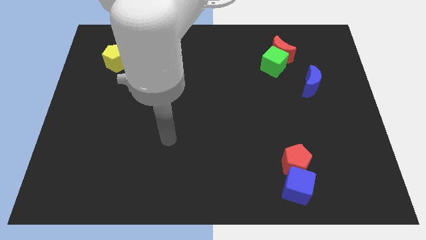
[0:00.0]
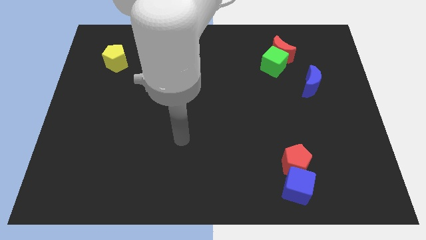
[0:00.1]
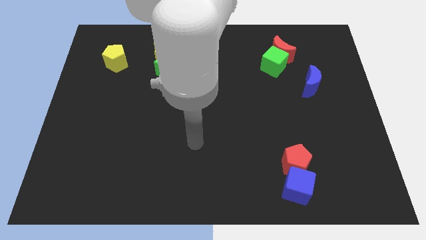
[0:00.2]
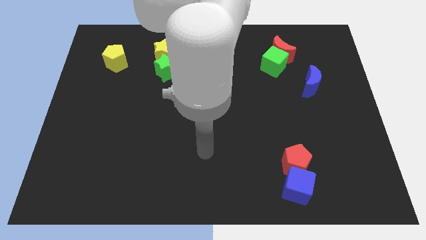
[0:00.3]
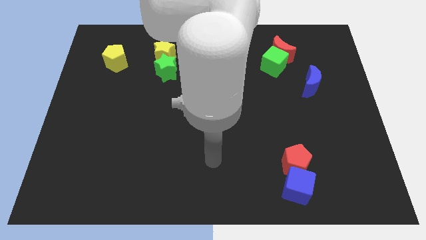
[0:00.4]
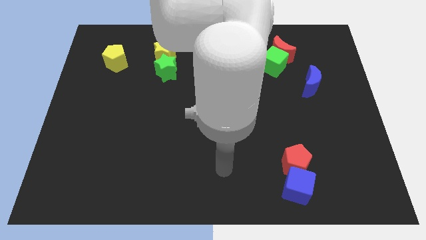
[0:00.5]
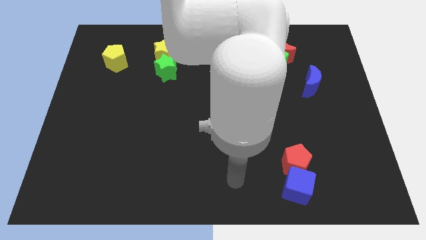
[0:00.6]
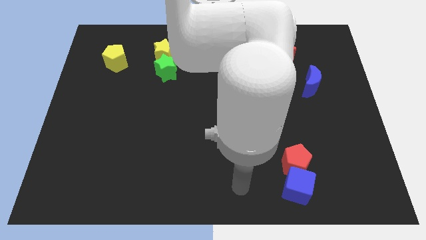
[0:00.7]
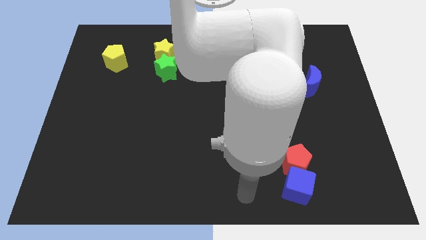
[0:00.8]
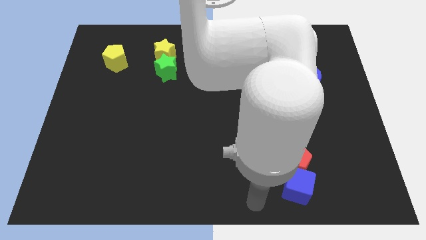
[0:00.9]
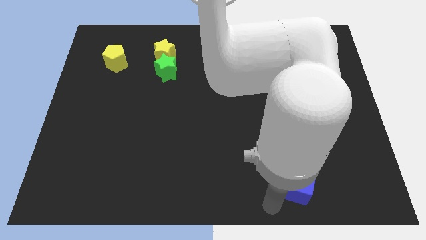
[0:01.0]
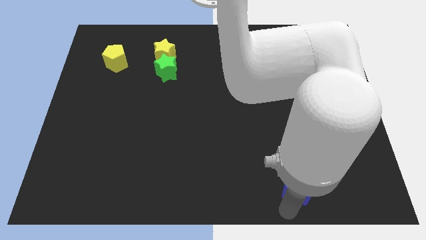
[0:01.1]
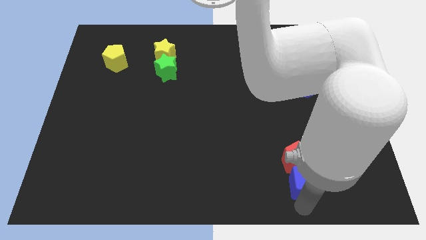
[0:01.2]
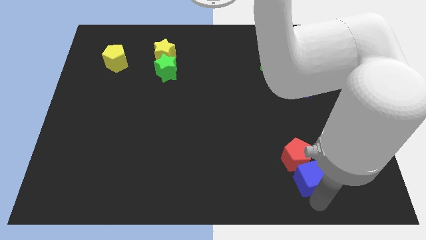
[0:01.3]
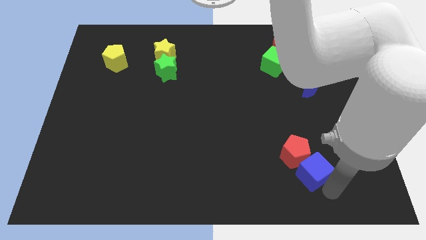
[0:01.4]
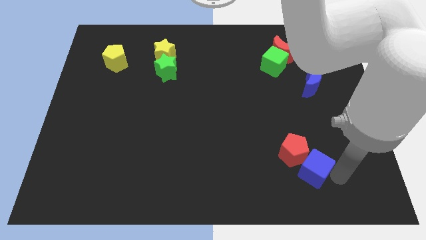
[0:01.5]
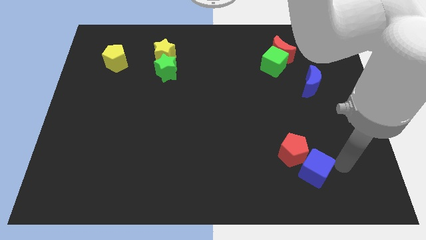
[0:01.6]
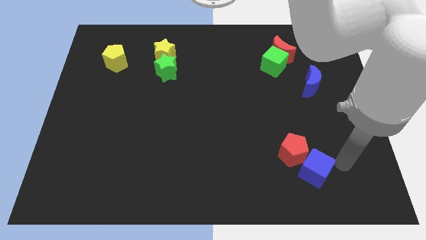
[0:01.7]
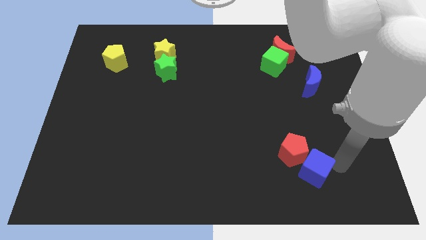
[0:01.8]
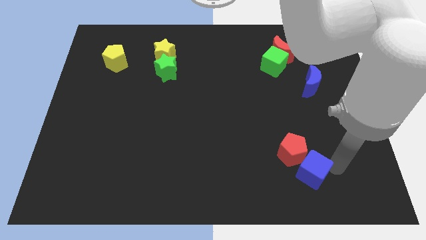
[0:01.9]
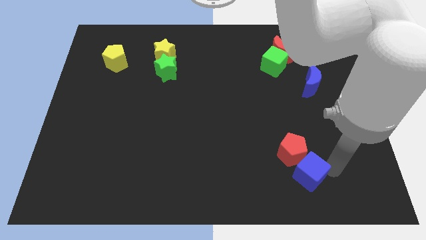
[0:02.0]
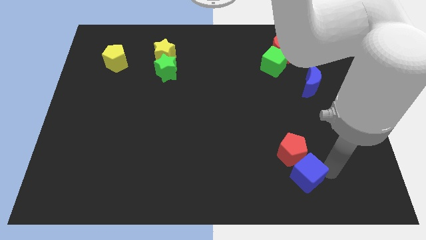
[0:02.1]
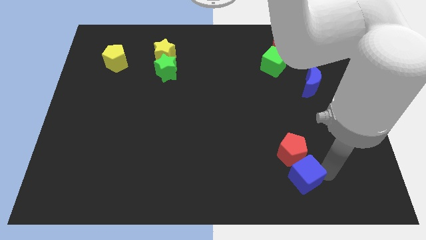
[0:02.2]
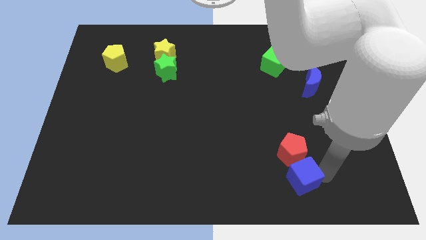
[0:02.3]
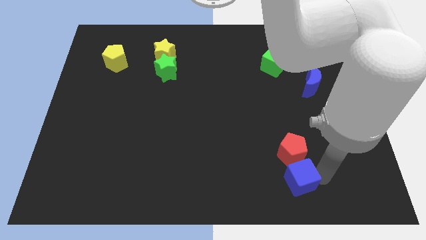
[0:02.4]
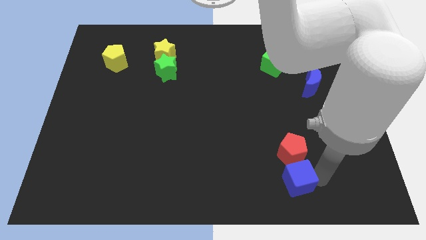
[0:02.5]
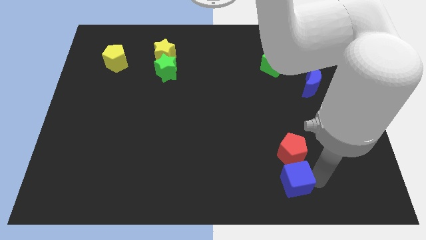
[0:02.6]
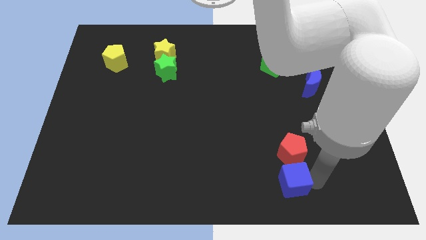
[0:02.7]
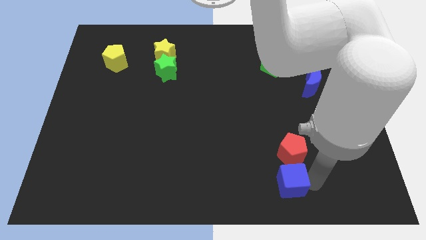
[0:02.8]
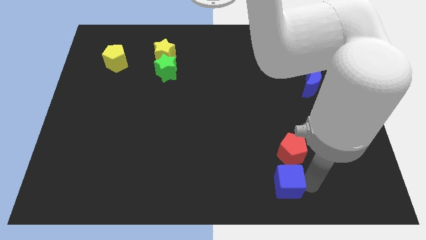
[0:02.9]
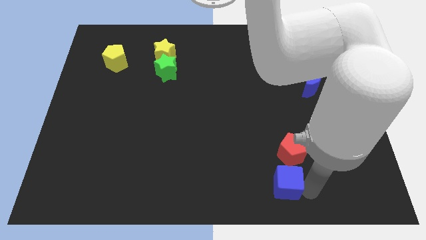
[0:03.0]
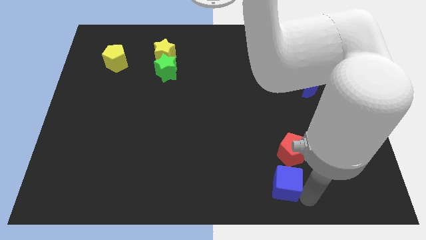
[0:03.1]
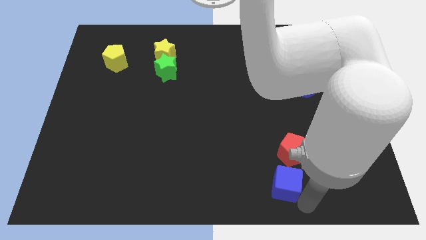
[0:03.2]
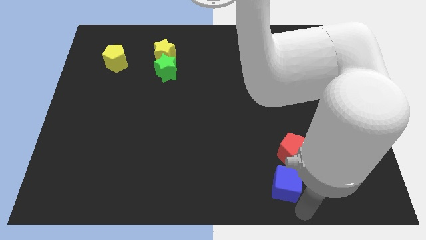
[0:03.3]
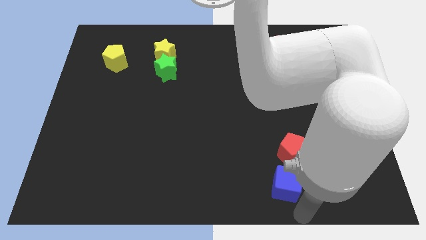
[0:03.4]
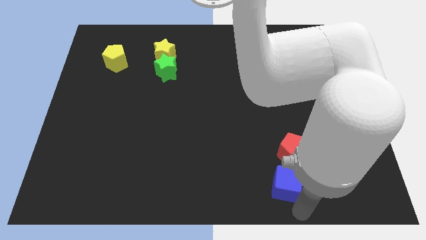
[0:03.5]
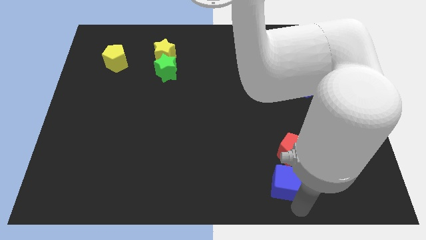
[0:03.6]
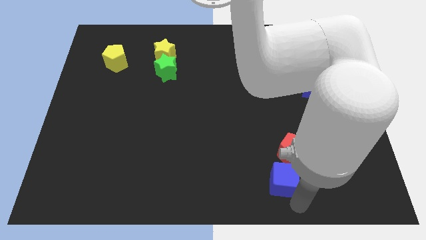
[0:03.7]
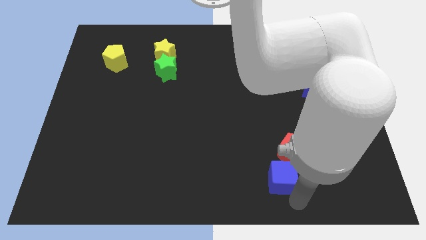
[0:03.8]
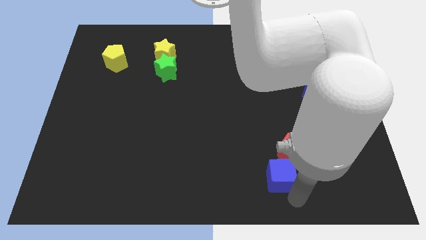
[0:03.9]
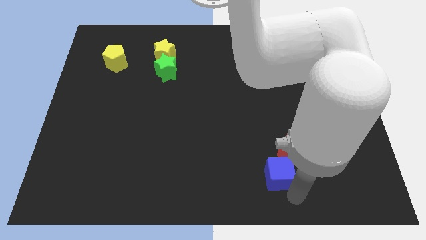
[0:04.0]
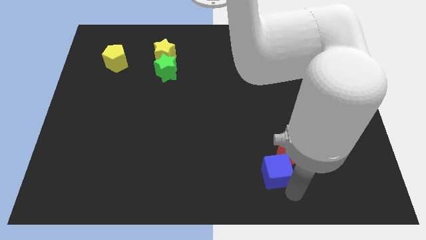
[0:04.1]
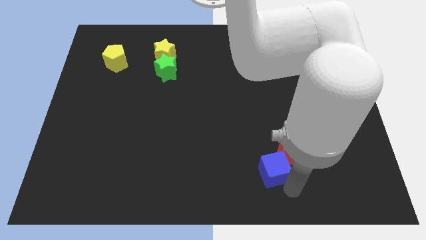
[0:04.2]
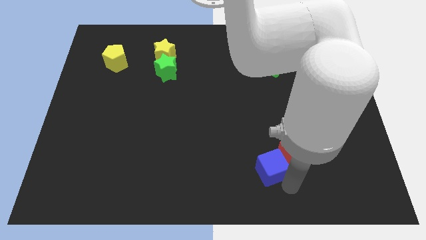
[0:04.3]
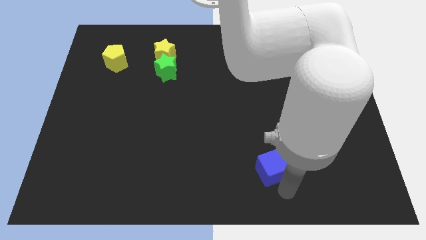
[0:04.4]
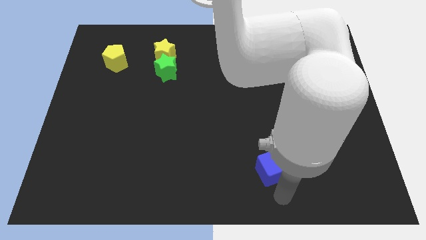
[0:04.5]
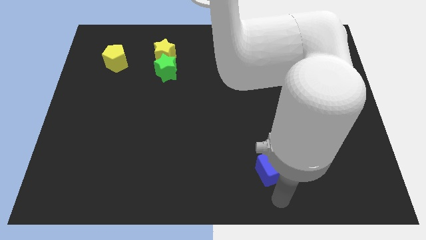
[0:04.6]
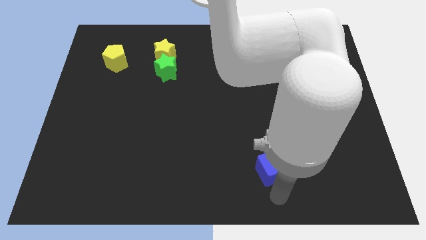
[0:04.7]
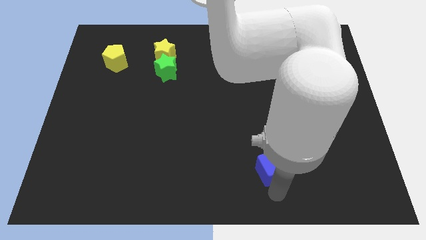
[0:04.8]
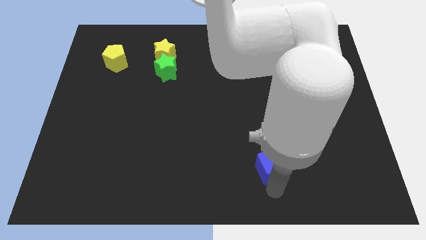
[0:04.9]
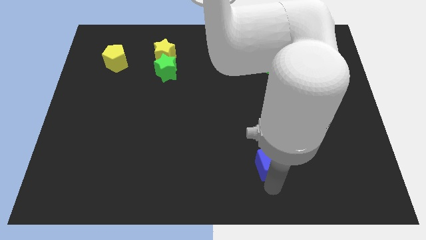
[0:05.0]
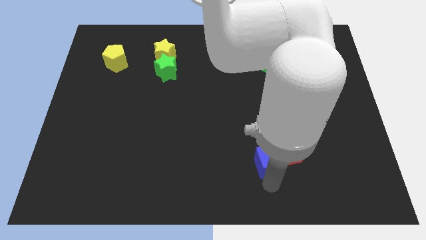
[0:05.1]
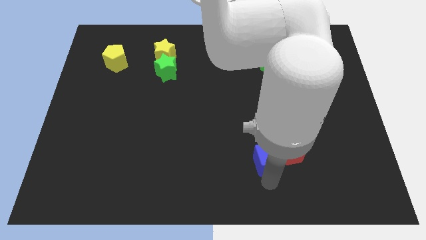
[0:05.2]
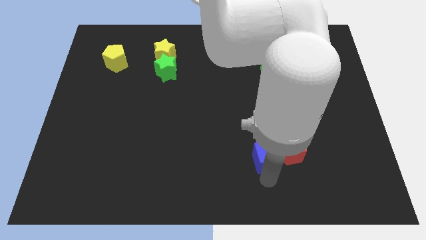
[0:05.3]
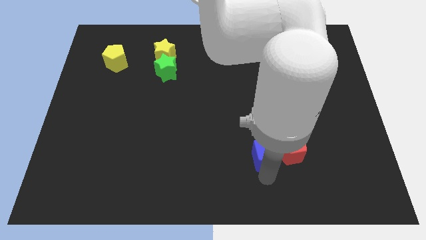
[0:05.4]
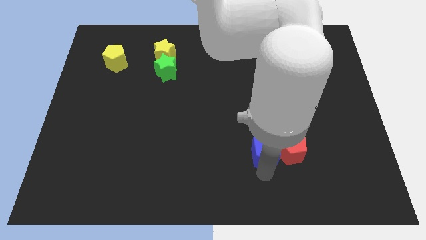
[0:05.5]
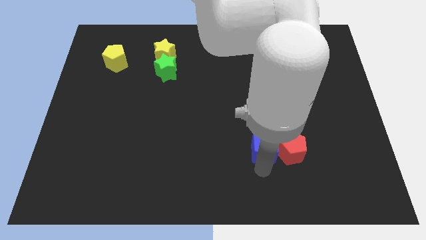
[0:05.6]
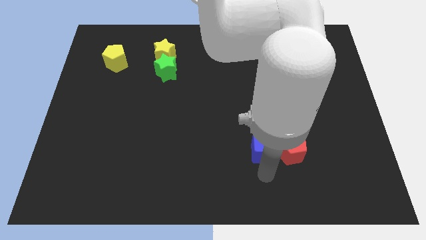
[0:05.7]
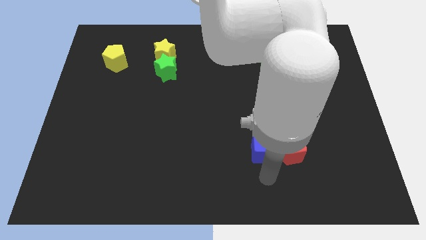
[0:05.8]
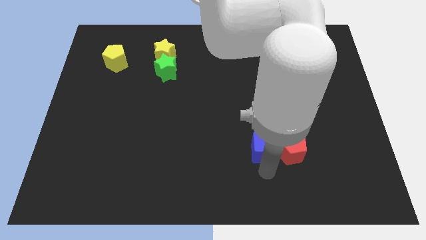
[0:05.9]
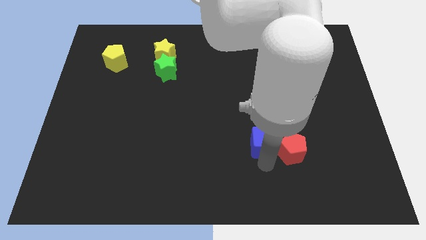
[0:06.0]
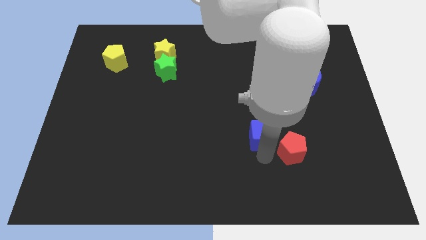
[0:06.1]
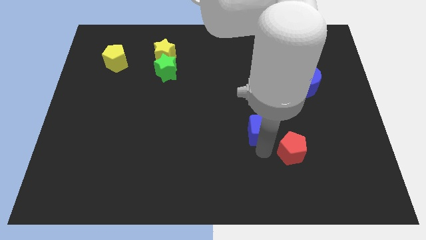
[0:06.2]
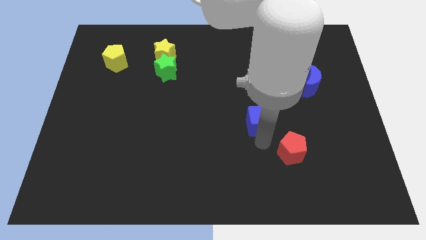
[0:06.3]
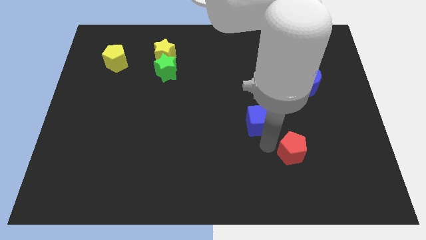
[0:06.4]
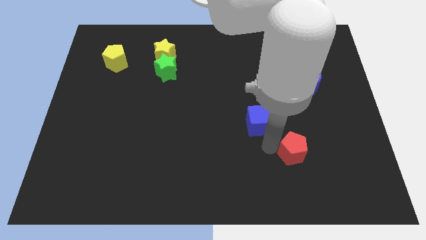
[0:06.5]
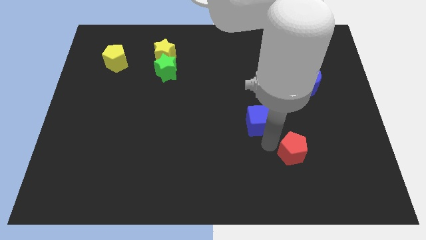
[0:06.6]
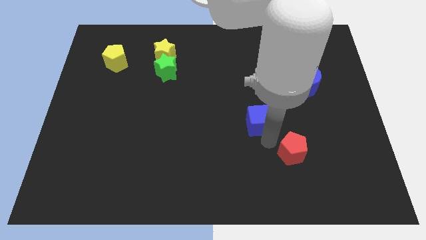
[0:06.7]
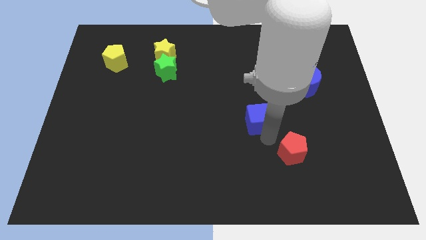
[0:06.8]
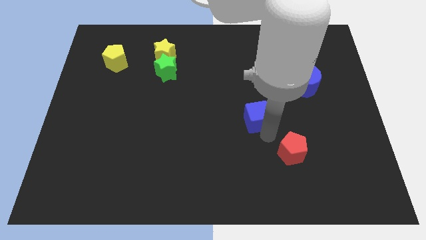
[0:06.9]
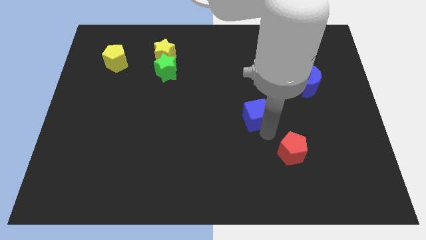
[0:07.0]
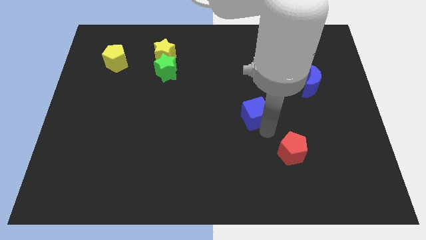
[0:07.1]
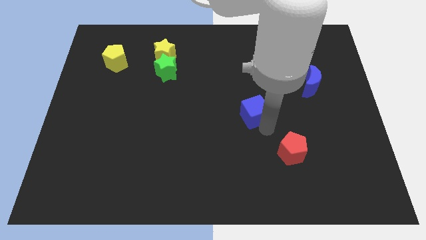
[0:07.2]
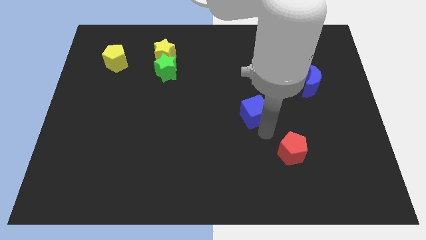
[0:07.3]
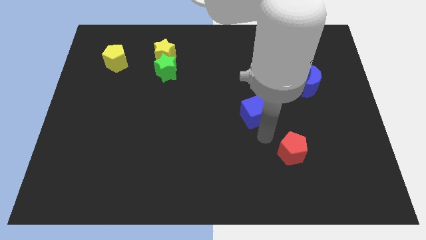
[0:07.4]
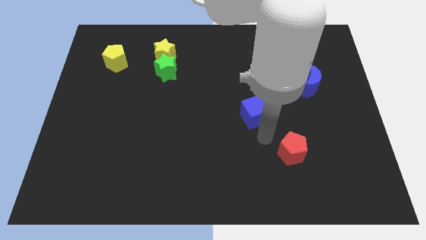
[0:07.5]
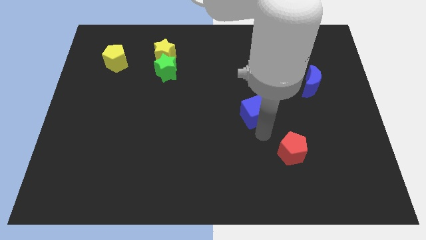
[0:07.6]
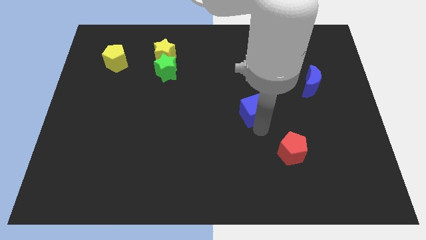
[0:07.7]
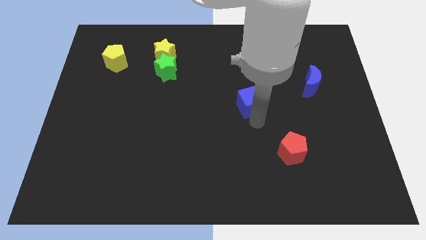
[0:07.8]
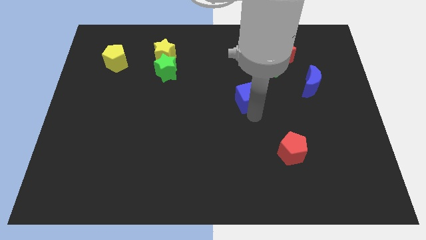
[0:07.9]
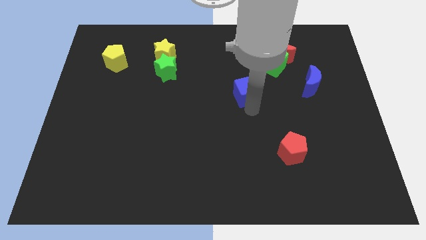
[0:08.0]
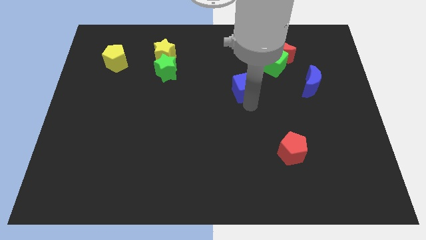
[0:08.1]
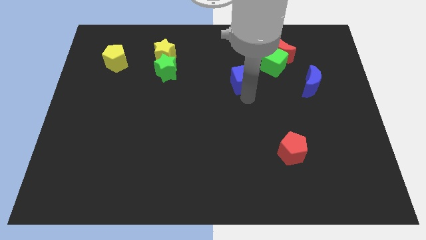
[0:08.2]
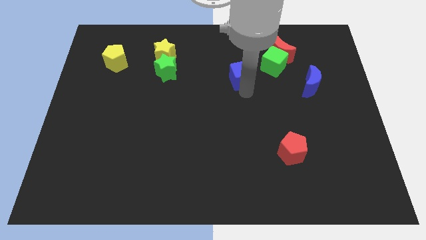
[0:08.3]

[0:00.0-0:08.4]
push the blue cube to the left of the green cube
